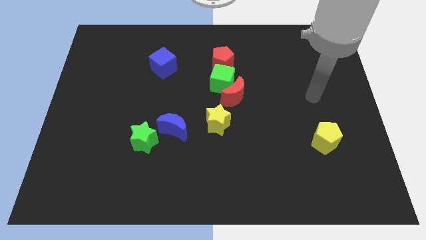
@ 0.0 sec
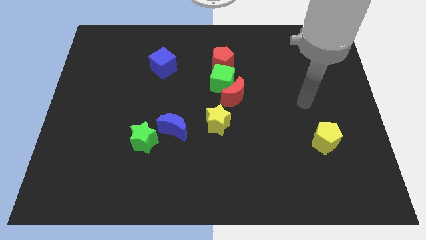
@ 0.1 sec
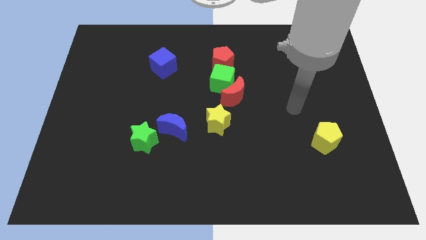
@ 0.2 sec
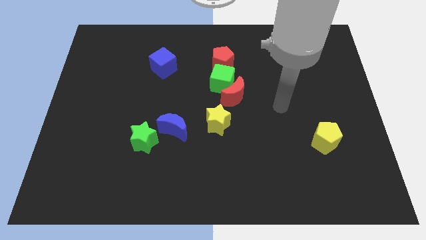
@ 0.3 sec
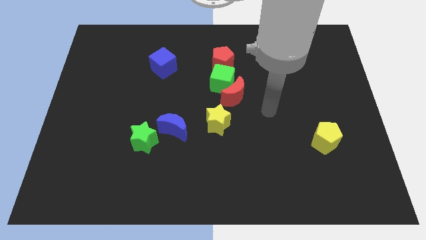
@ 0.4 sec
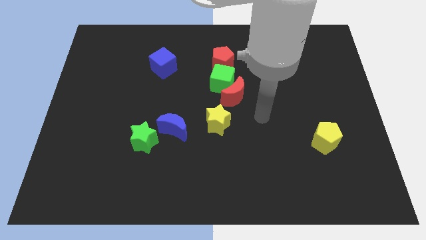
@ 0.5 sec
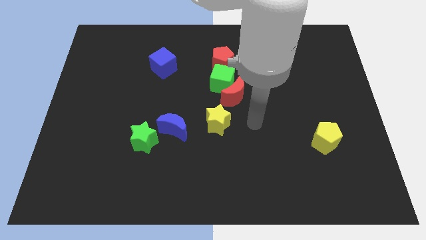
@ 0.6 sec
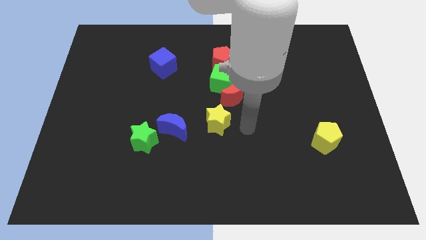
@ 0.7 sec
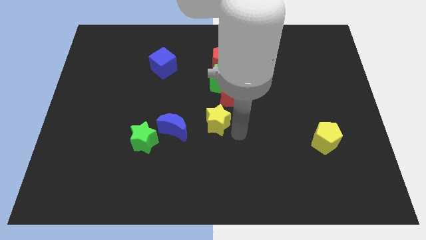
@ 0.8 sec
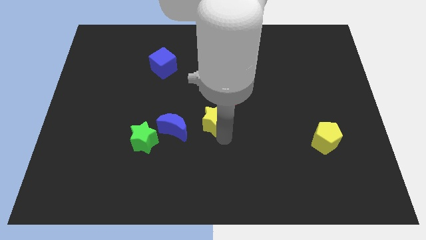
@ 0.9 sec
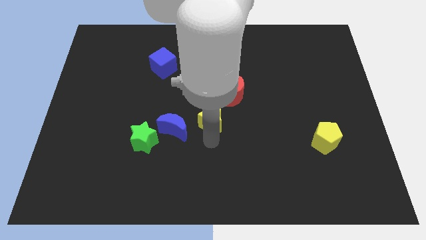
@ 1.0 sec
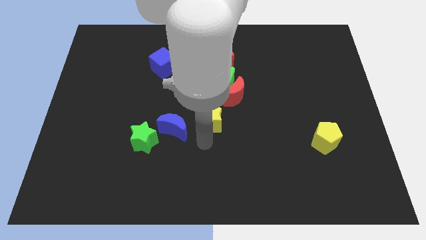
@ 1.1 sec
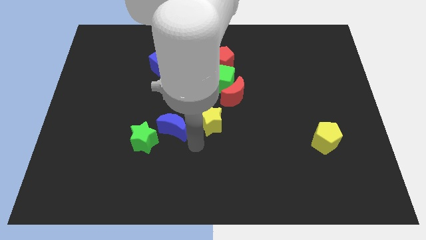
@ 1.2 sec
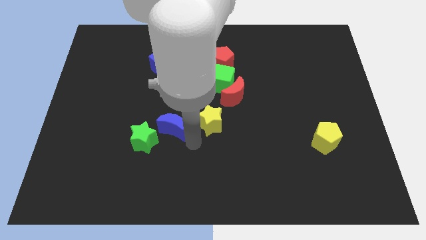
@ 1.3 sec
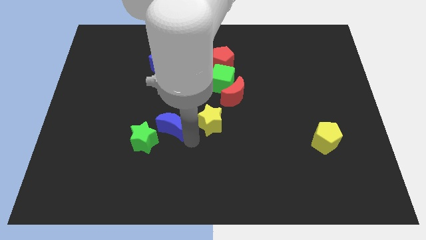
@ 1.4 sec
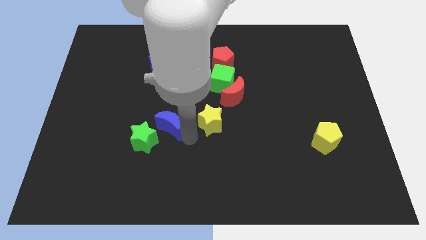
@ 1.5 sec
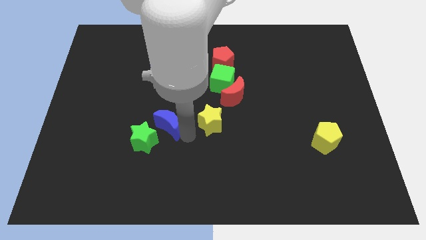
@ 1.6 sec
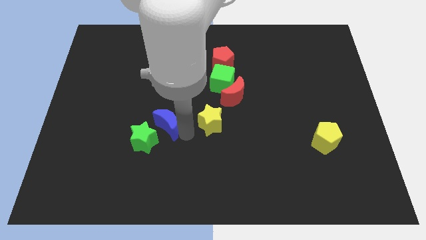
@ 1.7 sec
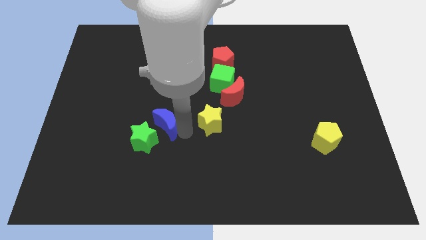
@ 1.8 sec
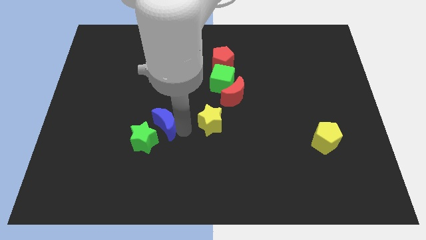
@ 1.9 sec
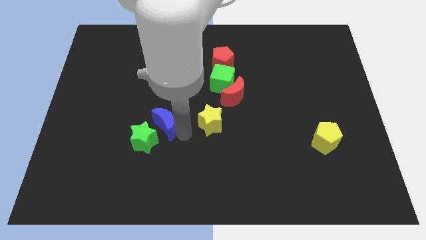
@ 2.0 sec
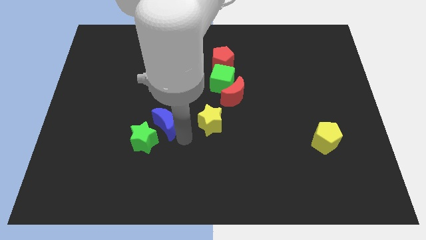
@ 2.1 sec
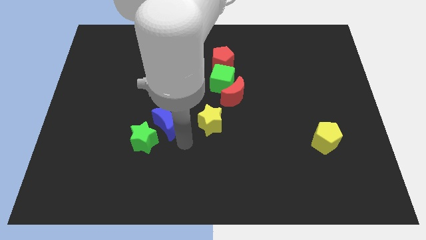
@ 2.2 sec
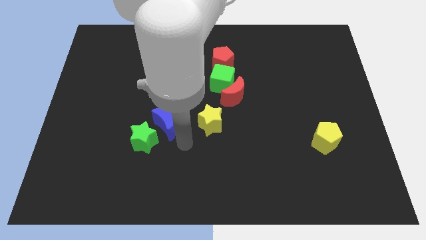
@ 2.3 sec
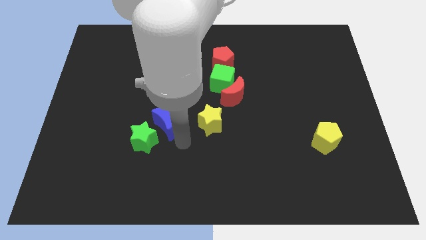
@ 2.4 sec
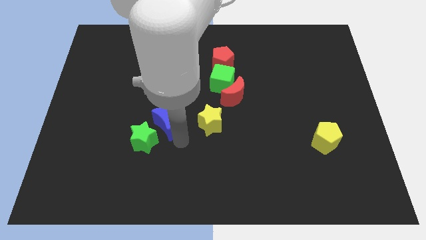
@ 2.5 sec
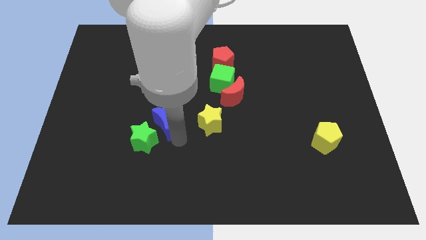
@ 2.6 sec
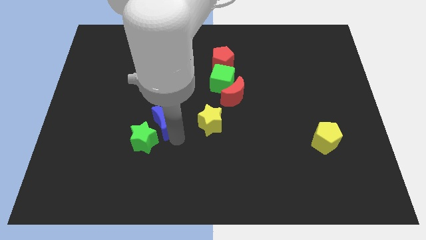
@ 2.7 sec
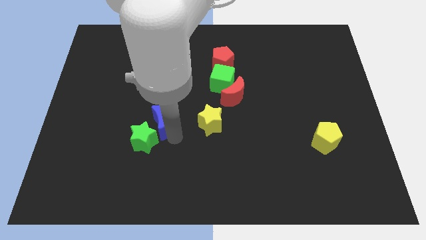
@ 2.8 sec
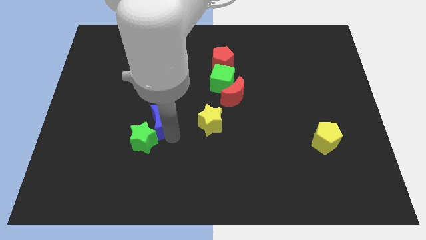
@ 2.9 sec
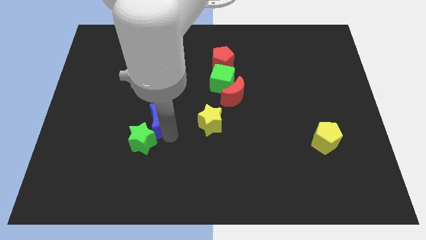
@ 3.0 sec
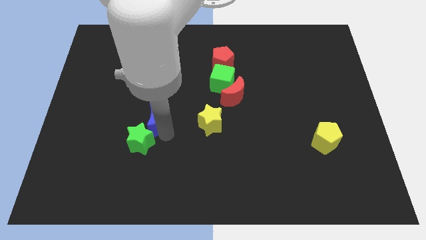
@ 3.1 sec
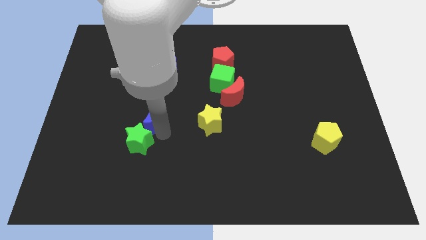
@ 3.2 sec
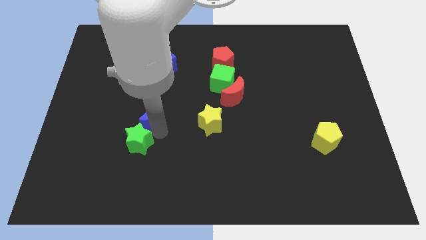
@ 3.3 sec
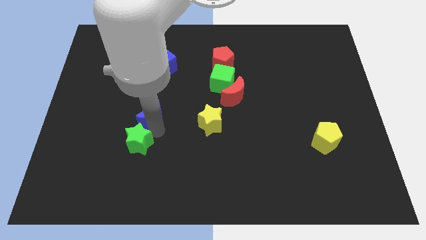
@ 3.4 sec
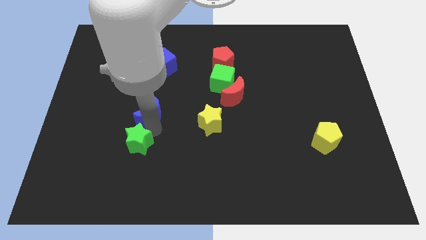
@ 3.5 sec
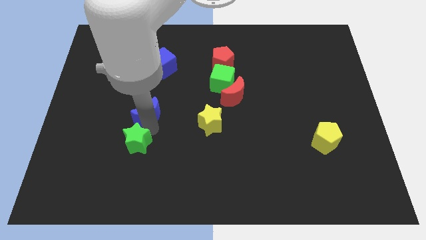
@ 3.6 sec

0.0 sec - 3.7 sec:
slide the blue moon upwards and left diagonally a little bit

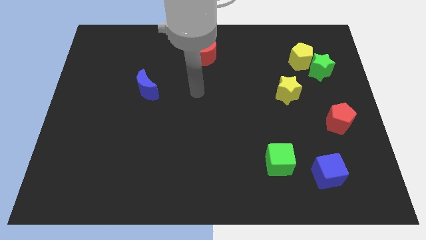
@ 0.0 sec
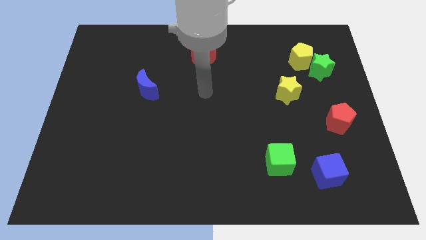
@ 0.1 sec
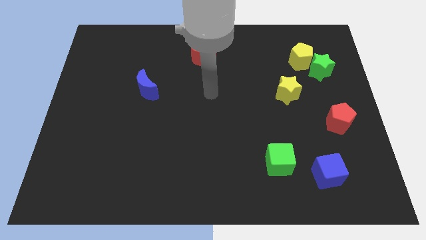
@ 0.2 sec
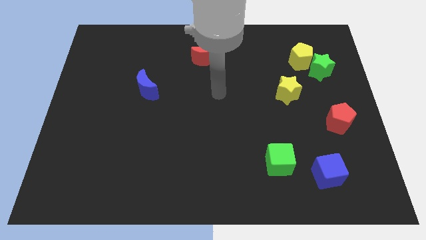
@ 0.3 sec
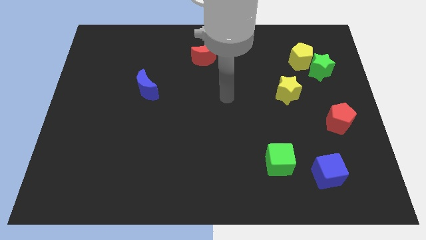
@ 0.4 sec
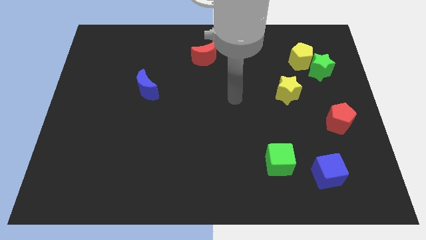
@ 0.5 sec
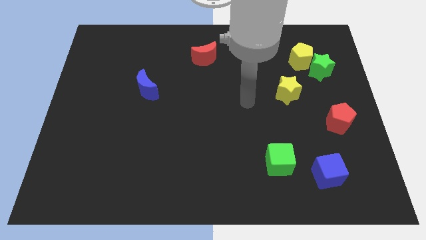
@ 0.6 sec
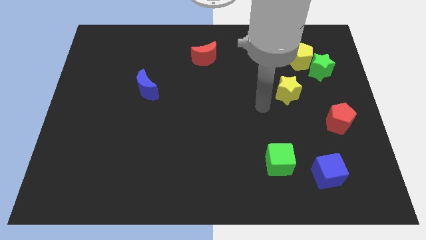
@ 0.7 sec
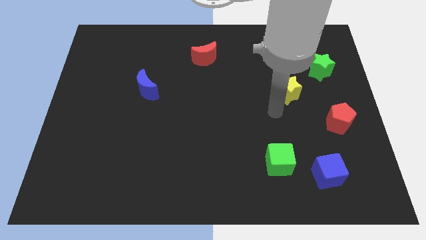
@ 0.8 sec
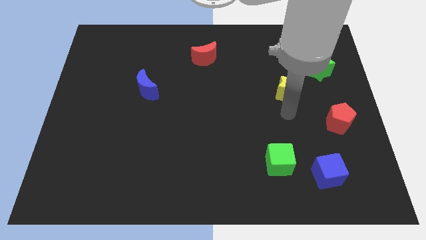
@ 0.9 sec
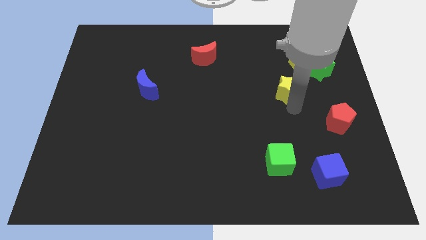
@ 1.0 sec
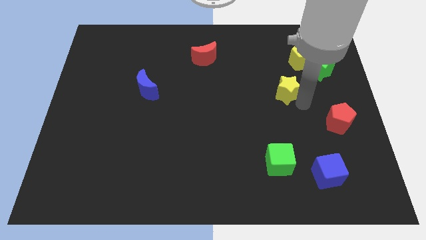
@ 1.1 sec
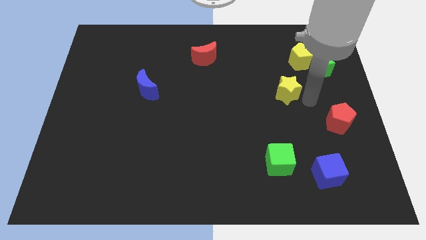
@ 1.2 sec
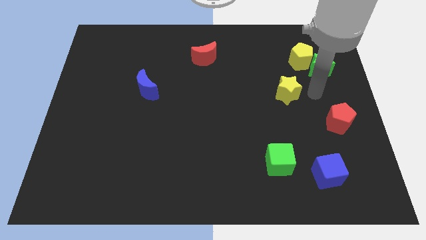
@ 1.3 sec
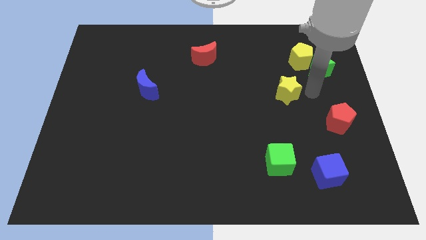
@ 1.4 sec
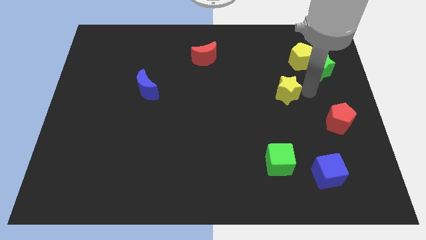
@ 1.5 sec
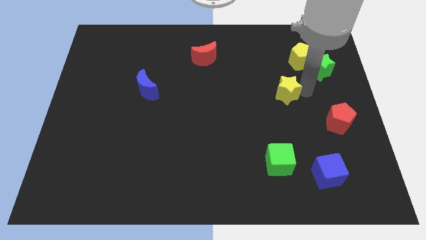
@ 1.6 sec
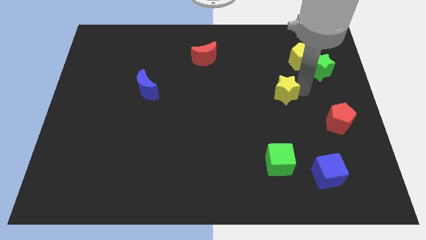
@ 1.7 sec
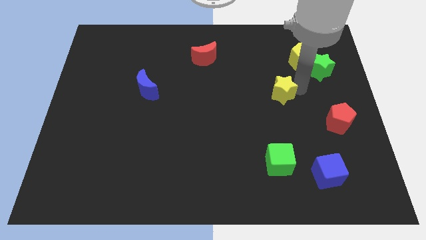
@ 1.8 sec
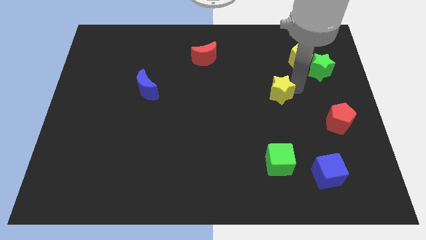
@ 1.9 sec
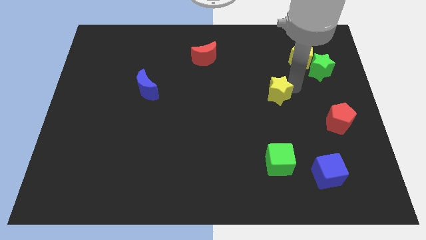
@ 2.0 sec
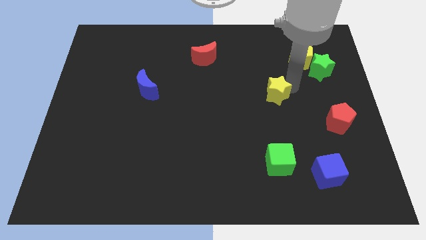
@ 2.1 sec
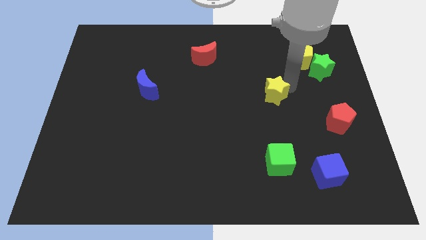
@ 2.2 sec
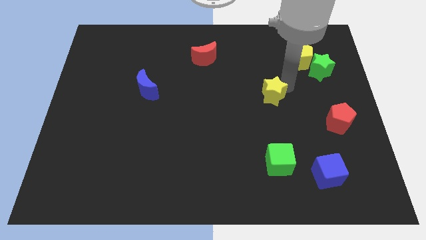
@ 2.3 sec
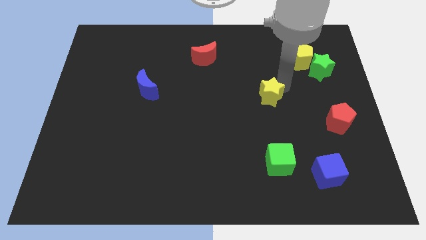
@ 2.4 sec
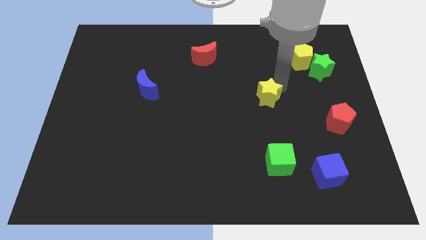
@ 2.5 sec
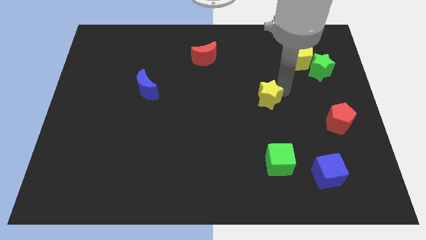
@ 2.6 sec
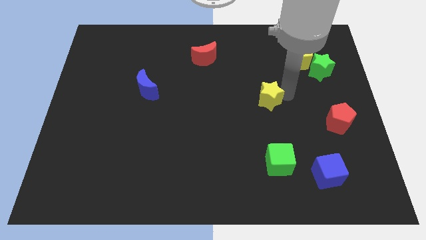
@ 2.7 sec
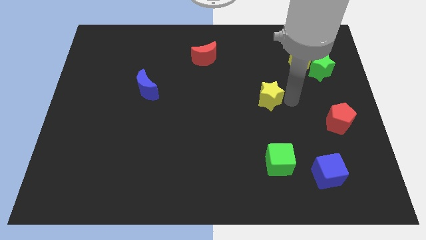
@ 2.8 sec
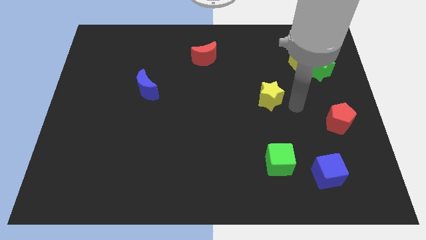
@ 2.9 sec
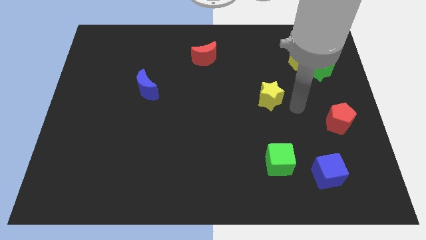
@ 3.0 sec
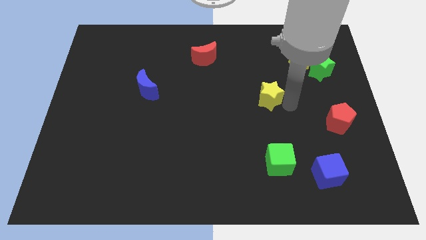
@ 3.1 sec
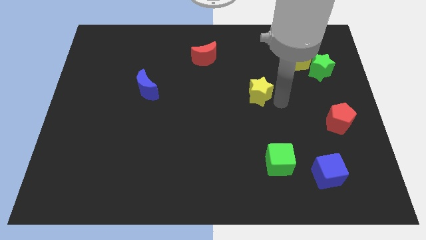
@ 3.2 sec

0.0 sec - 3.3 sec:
slide the yellow star left a little

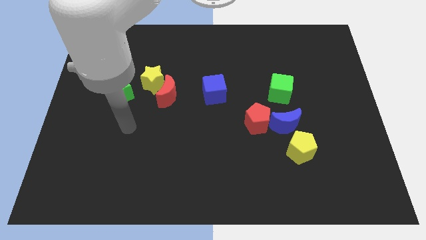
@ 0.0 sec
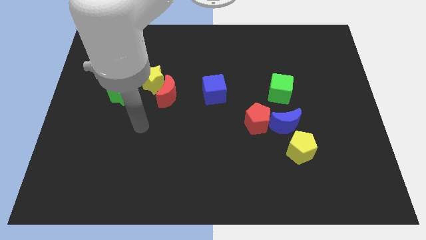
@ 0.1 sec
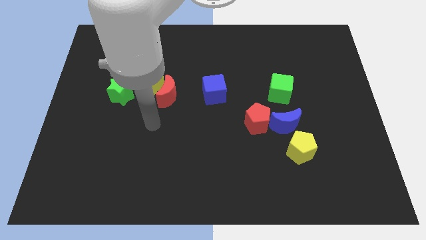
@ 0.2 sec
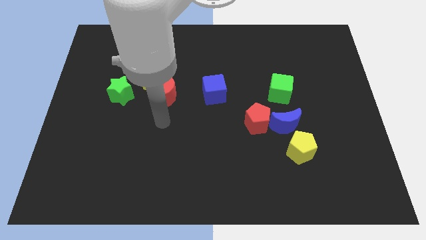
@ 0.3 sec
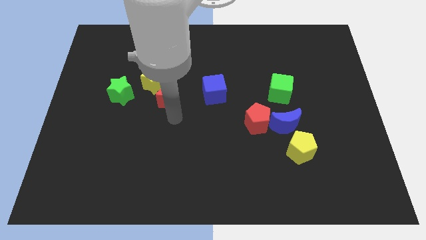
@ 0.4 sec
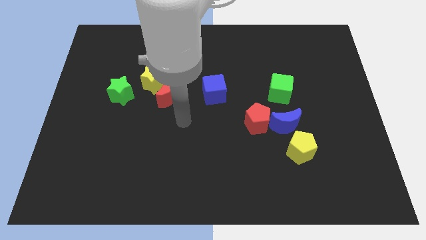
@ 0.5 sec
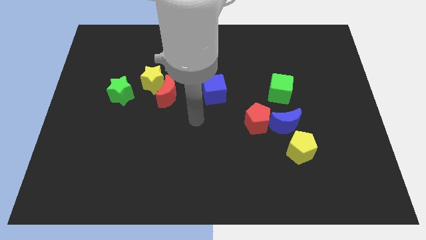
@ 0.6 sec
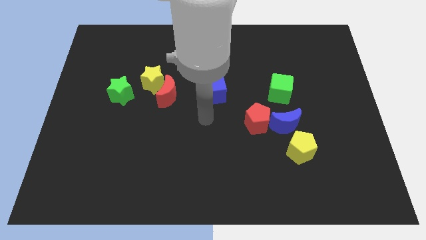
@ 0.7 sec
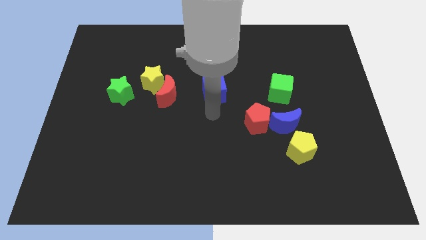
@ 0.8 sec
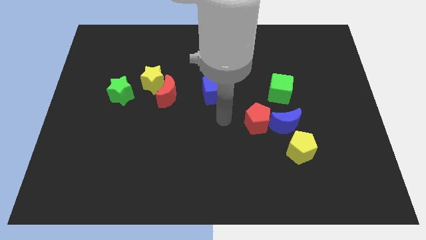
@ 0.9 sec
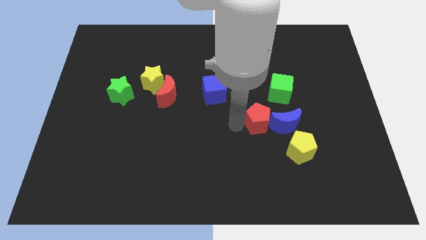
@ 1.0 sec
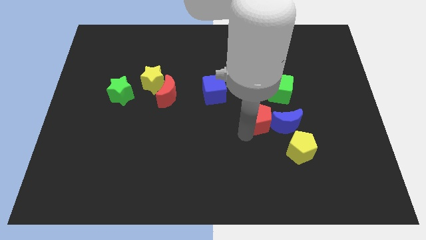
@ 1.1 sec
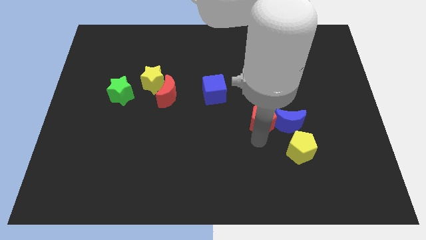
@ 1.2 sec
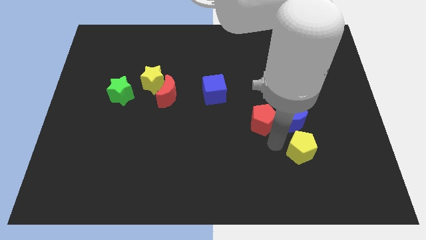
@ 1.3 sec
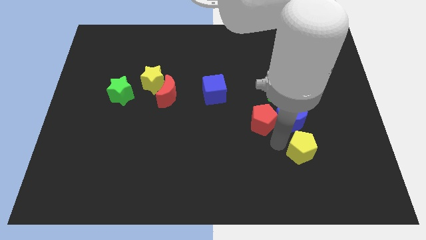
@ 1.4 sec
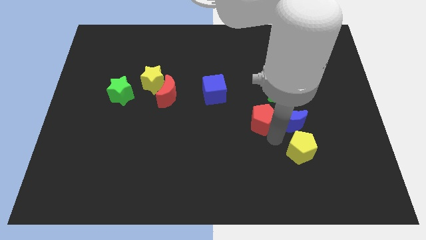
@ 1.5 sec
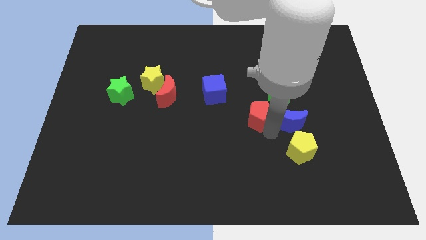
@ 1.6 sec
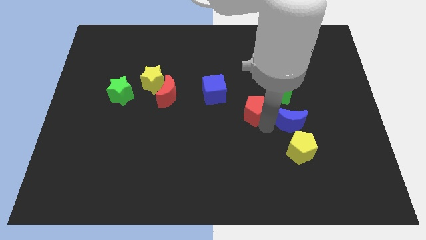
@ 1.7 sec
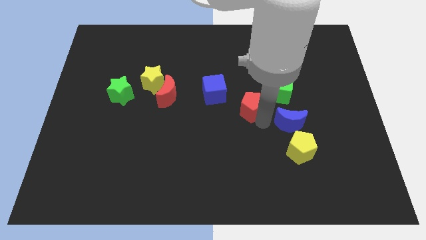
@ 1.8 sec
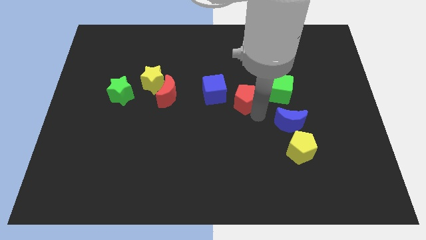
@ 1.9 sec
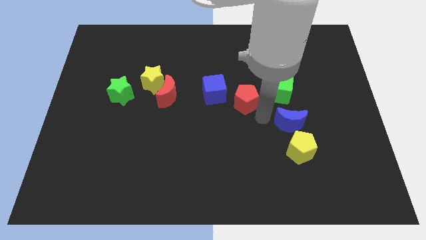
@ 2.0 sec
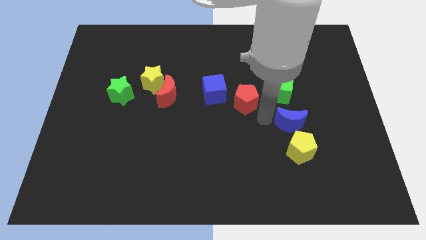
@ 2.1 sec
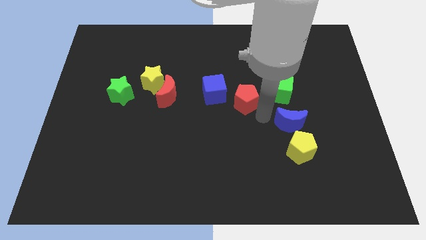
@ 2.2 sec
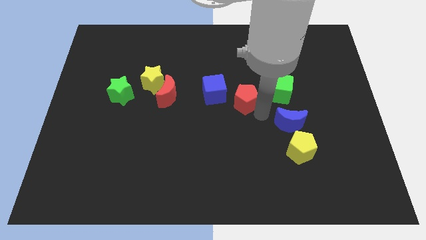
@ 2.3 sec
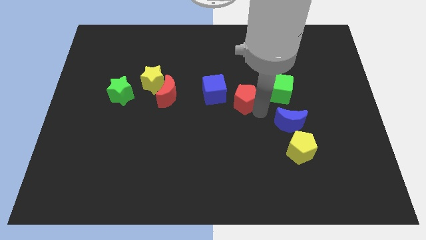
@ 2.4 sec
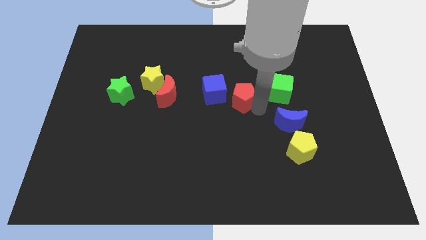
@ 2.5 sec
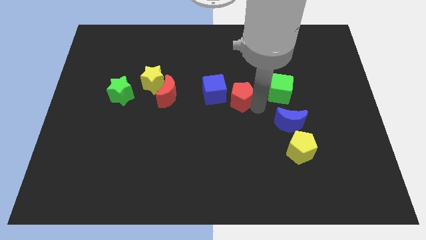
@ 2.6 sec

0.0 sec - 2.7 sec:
slightly slide the red pentagon up and to the left
